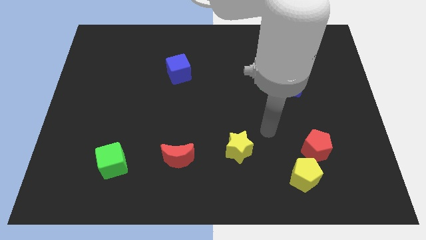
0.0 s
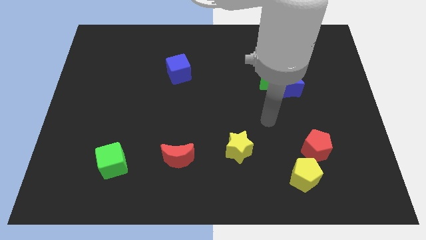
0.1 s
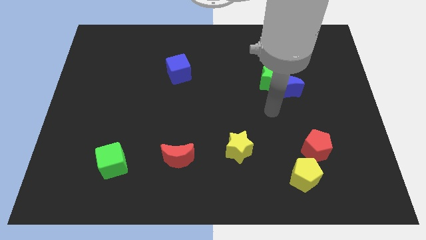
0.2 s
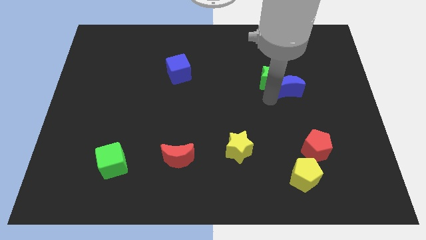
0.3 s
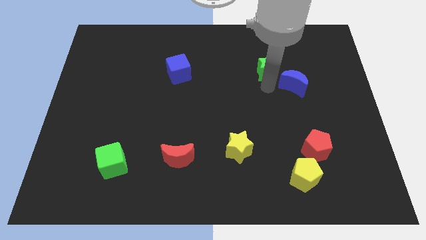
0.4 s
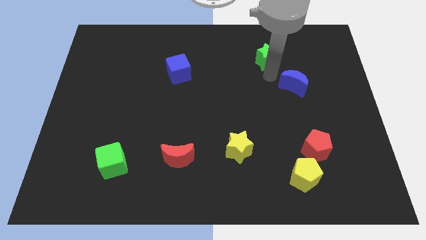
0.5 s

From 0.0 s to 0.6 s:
pull the blue moon apart from the green star

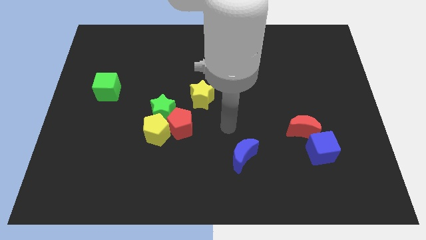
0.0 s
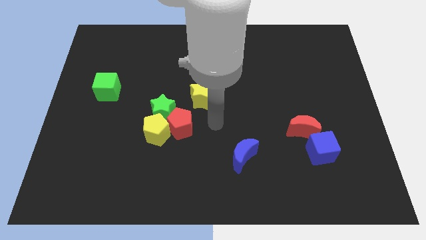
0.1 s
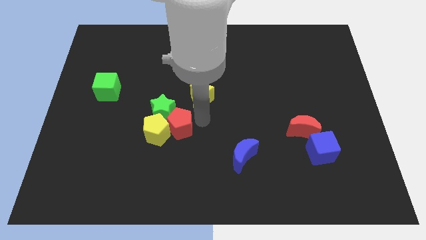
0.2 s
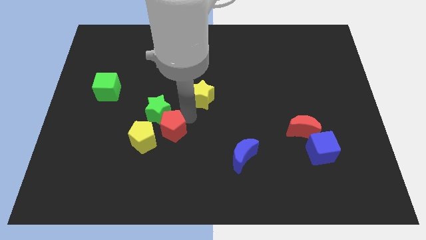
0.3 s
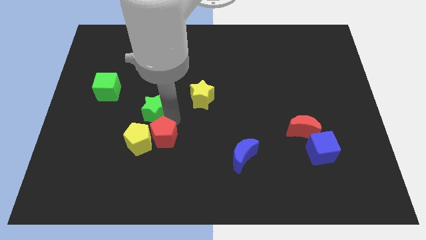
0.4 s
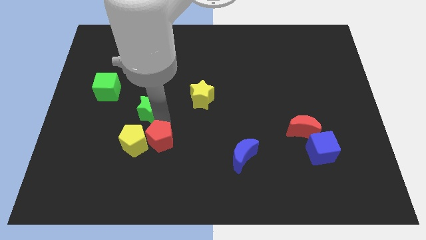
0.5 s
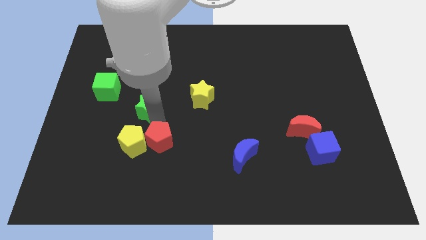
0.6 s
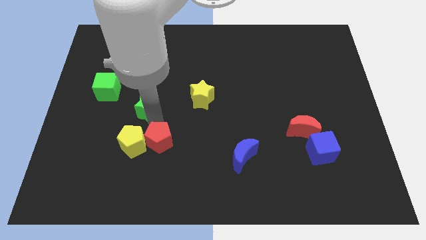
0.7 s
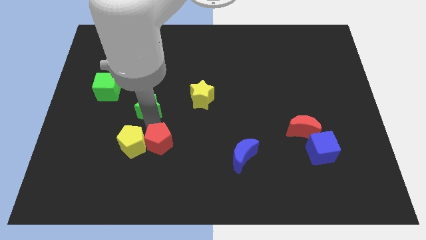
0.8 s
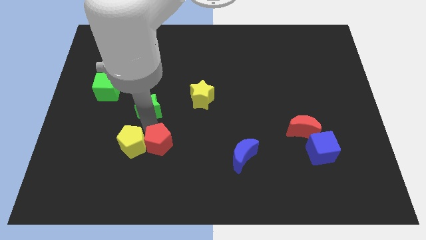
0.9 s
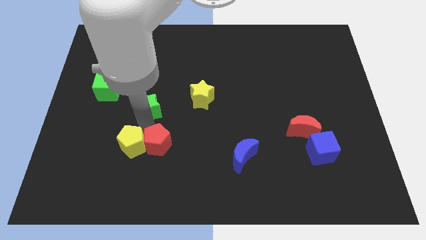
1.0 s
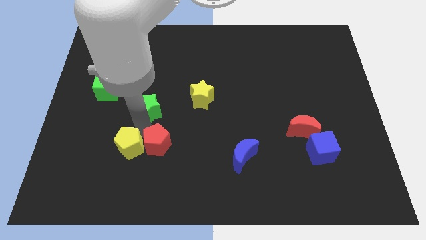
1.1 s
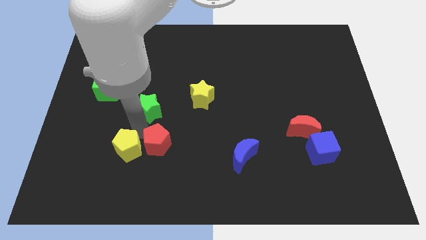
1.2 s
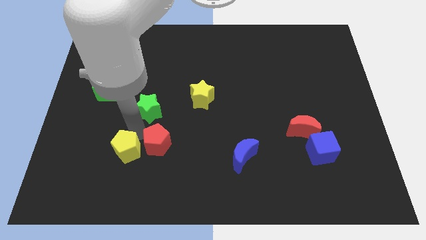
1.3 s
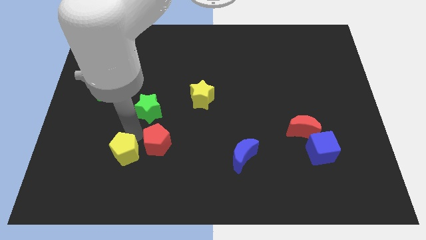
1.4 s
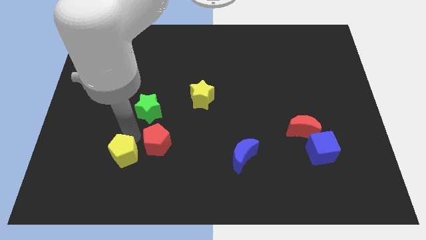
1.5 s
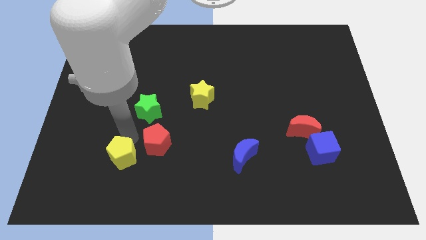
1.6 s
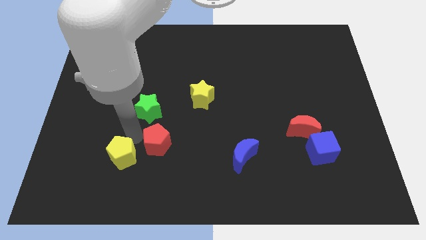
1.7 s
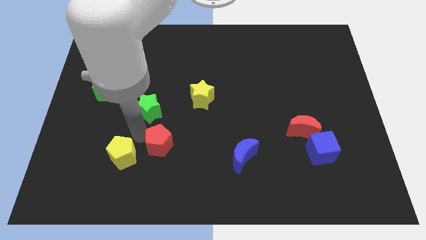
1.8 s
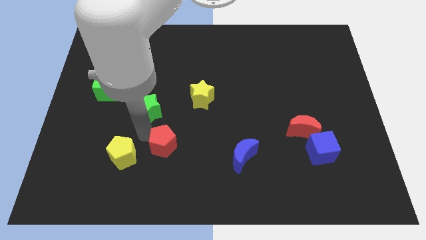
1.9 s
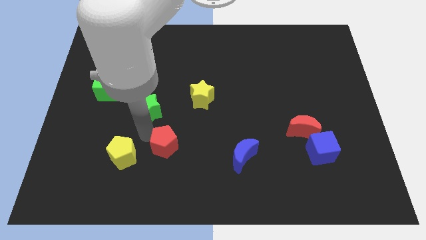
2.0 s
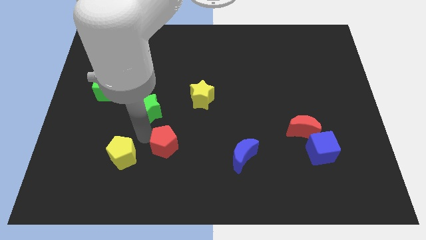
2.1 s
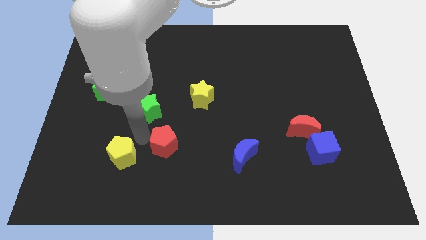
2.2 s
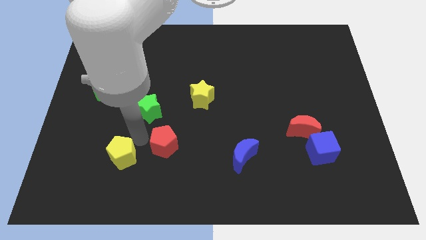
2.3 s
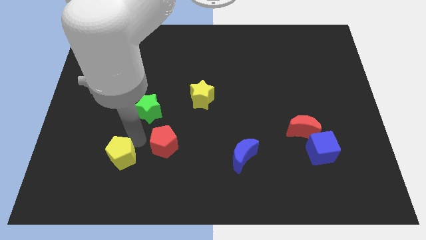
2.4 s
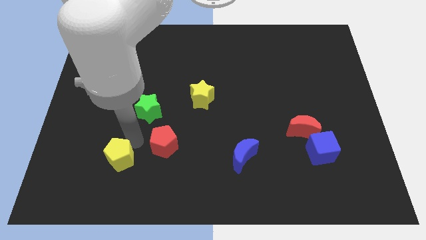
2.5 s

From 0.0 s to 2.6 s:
separate the yellow pentagon from the green star and red pentagon

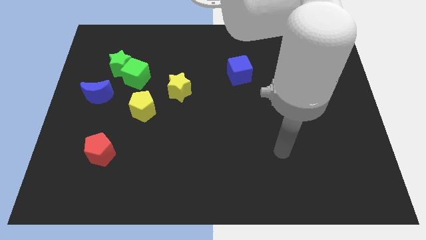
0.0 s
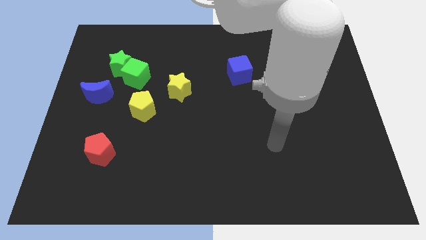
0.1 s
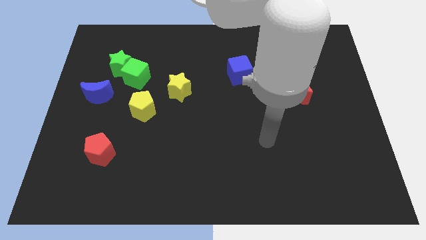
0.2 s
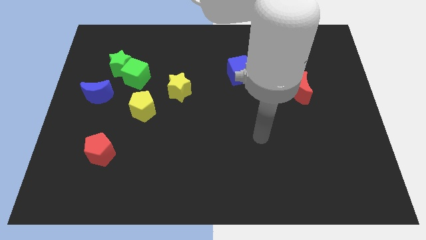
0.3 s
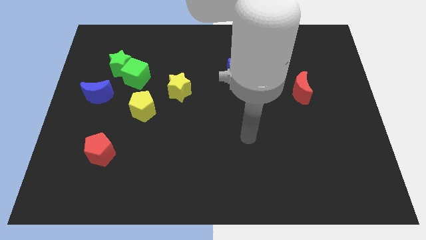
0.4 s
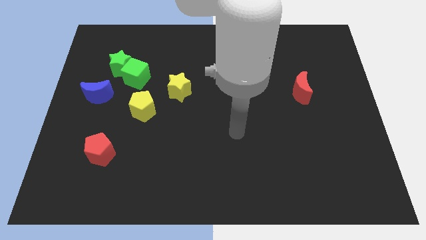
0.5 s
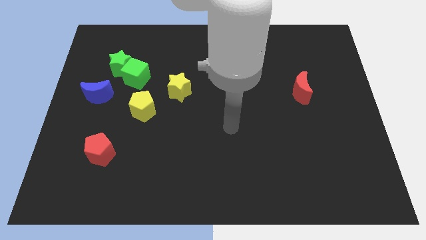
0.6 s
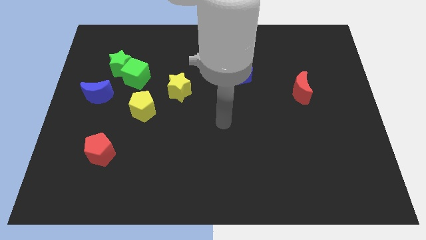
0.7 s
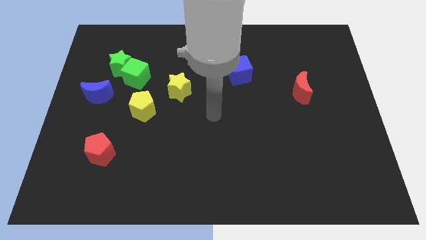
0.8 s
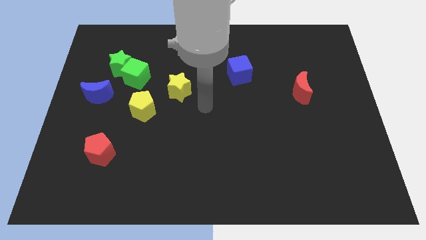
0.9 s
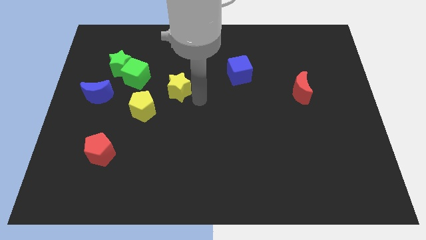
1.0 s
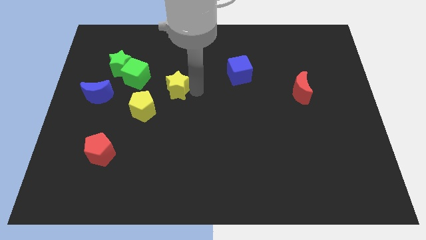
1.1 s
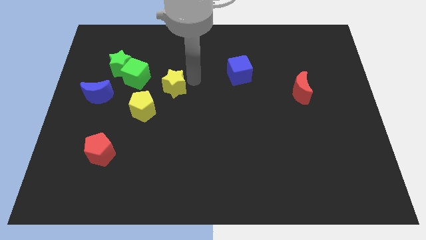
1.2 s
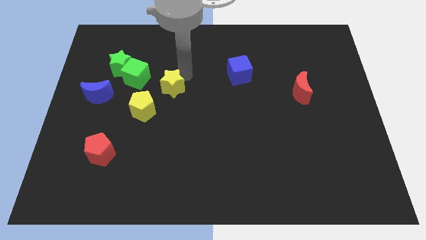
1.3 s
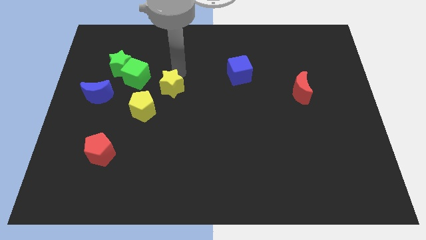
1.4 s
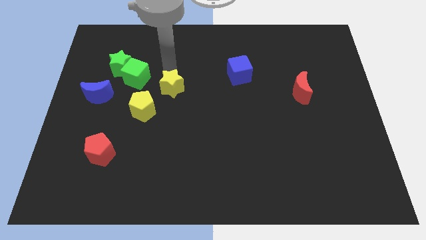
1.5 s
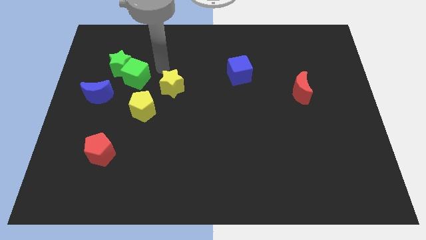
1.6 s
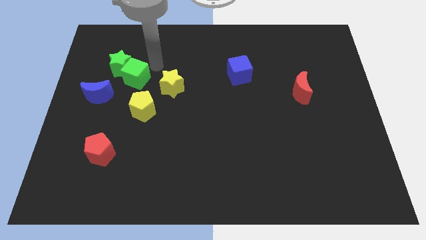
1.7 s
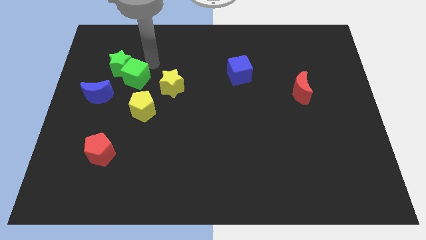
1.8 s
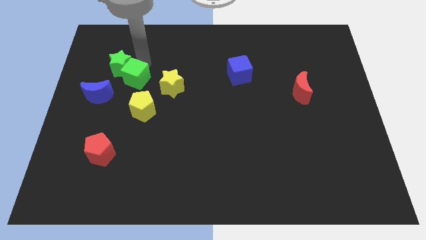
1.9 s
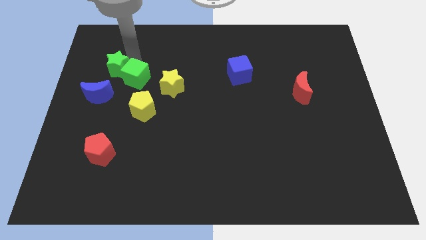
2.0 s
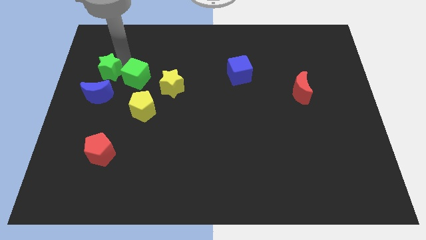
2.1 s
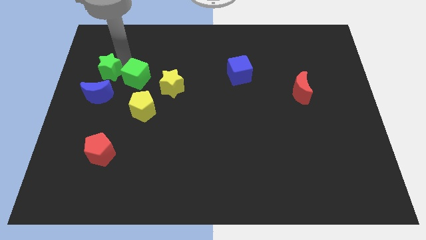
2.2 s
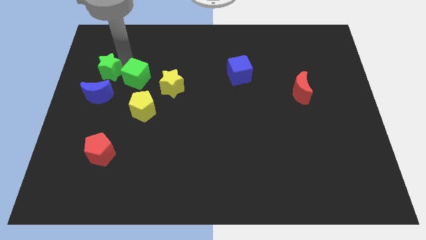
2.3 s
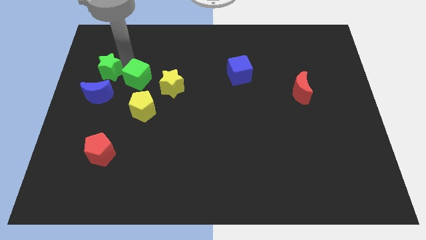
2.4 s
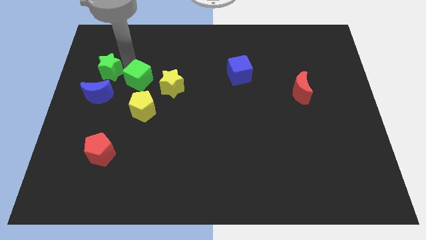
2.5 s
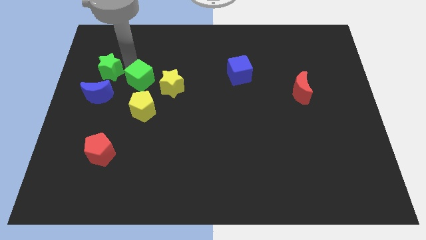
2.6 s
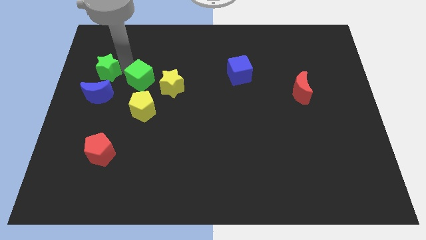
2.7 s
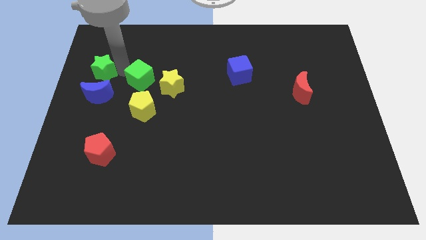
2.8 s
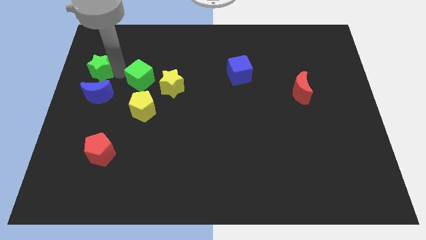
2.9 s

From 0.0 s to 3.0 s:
pull the green cube apart from the green star

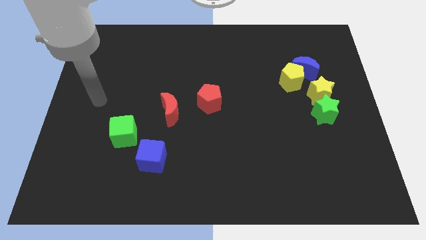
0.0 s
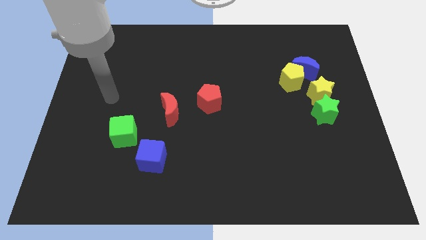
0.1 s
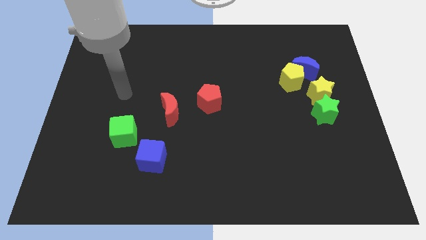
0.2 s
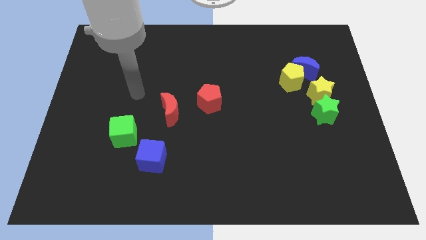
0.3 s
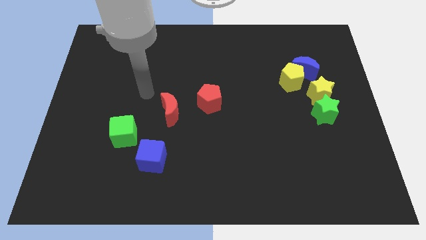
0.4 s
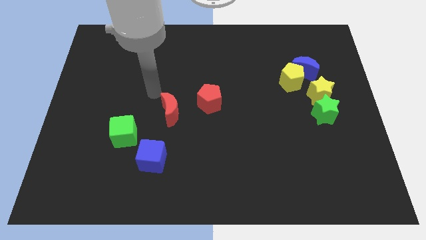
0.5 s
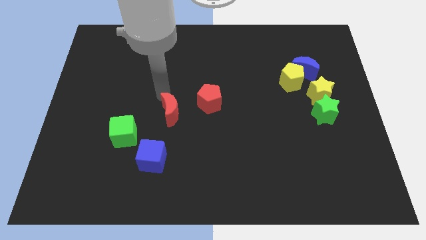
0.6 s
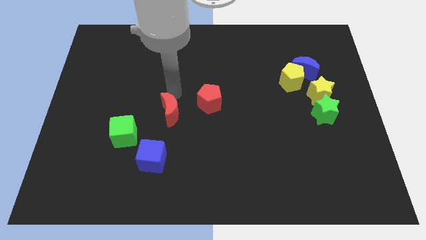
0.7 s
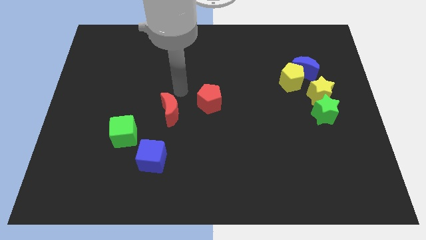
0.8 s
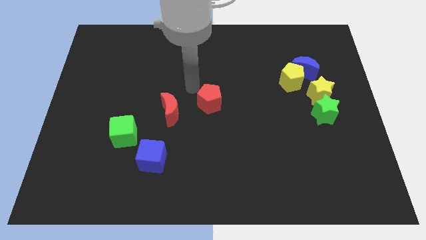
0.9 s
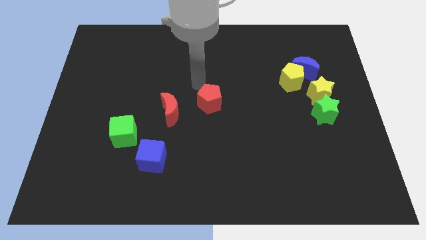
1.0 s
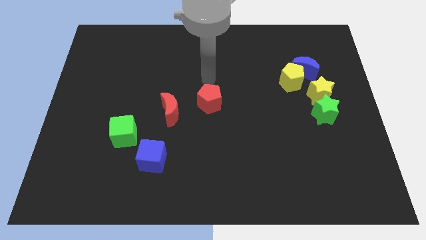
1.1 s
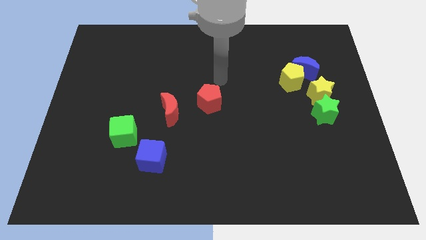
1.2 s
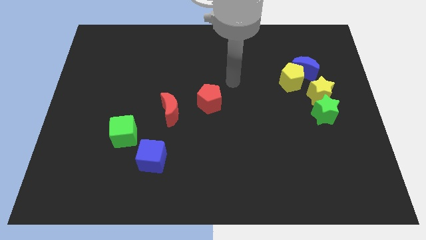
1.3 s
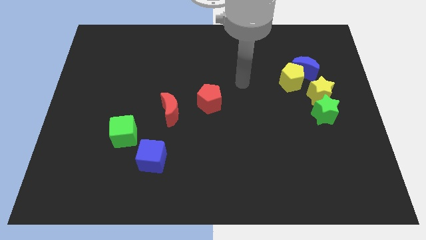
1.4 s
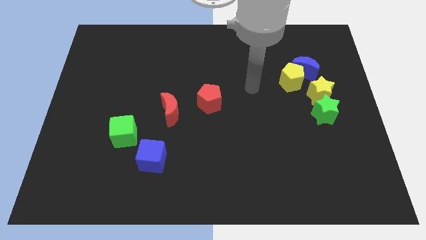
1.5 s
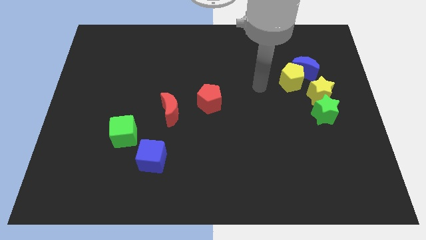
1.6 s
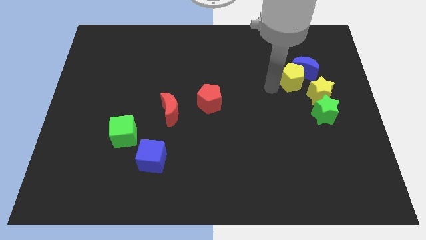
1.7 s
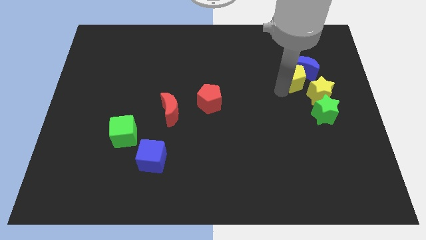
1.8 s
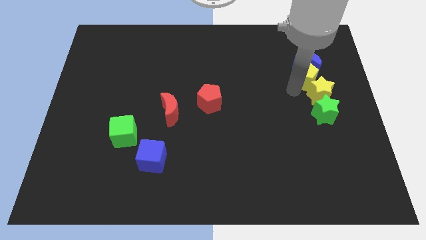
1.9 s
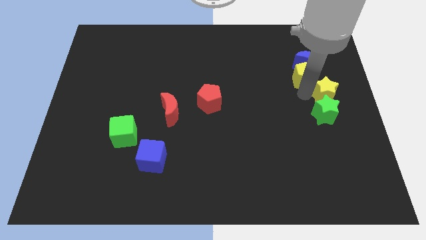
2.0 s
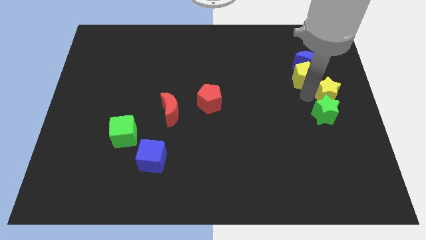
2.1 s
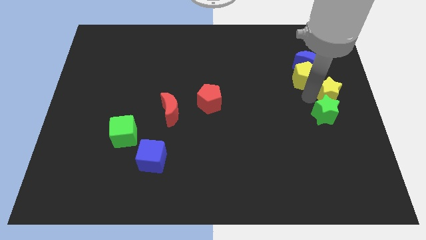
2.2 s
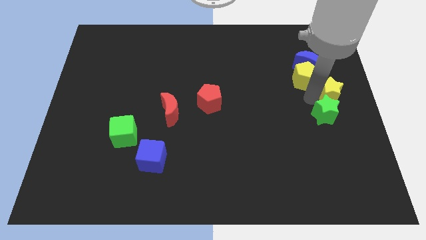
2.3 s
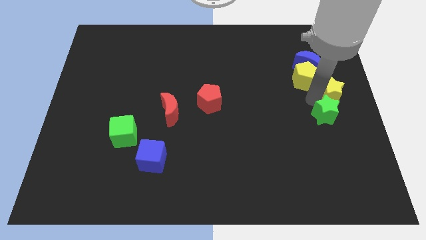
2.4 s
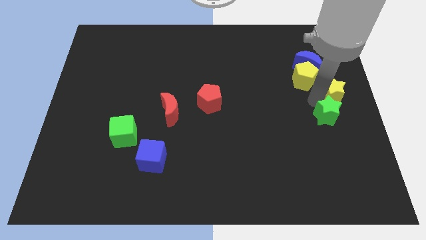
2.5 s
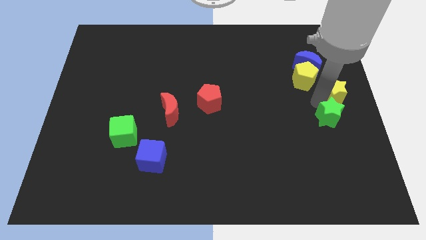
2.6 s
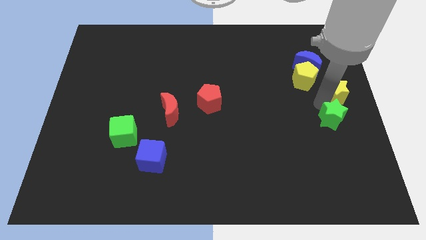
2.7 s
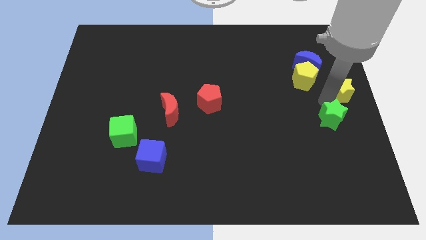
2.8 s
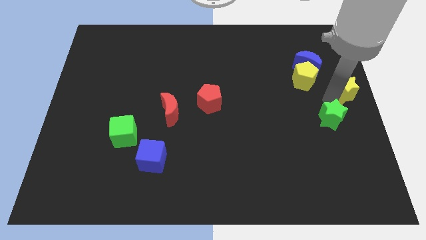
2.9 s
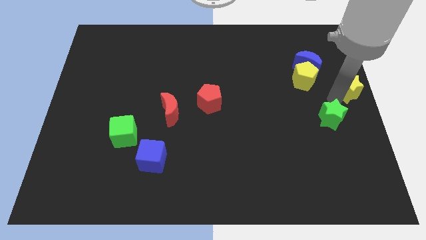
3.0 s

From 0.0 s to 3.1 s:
move the green star away from the yellow star
